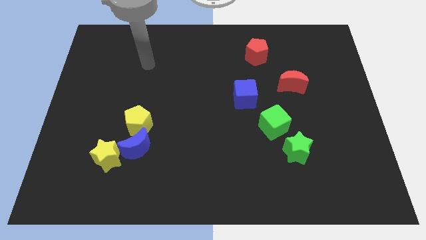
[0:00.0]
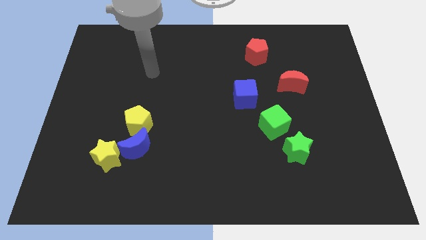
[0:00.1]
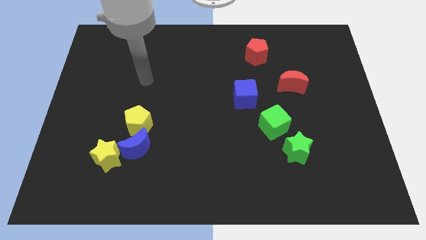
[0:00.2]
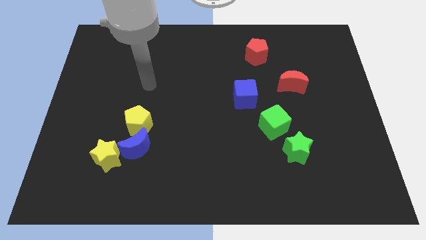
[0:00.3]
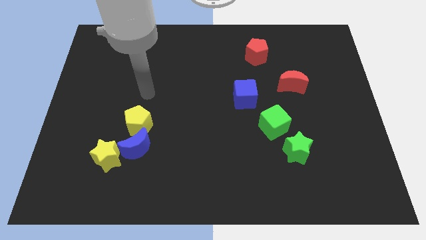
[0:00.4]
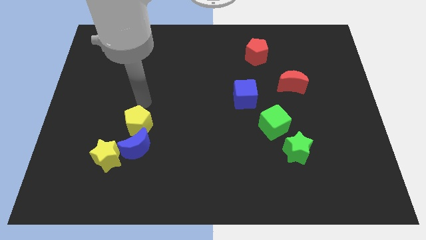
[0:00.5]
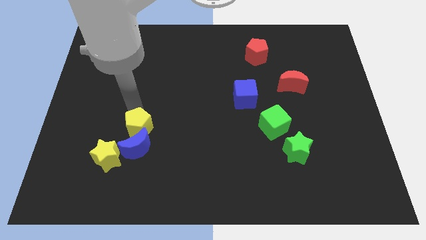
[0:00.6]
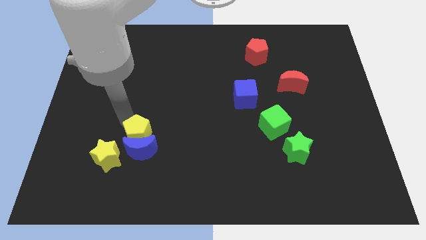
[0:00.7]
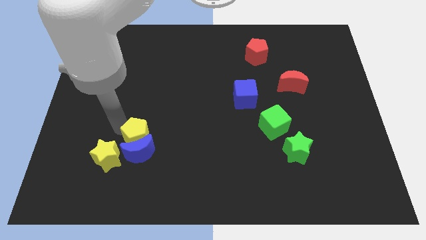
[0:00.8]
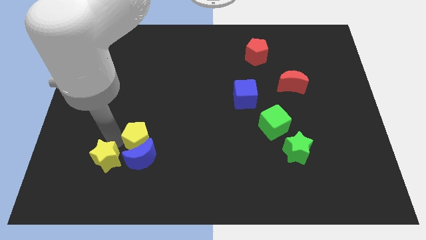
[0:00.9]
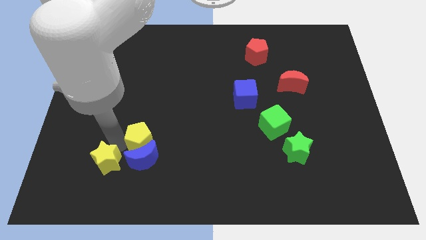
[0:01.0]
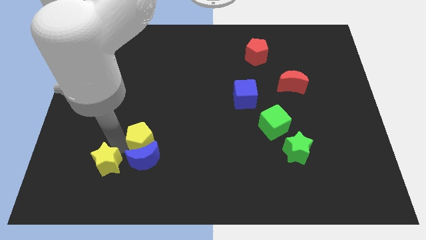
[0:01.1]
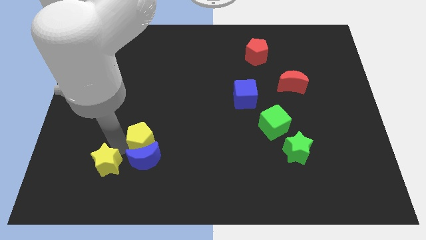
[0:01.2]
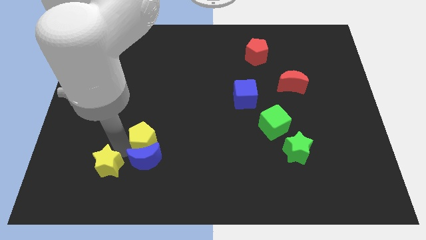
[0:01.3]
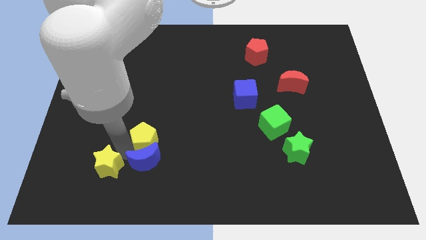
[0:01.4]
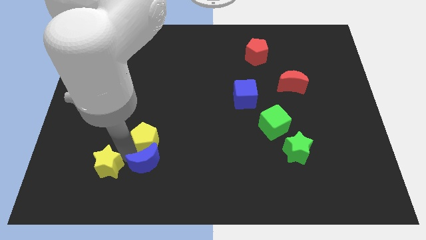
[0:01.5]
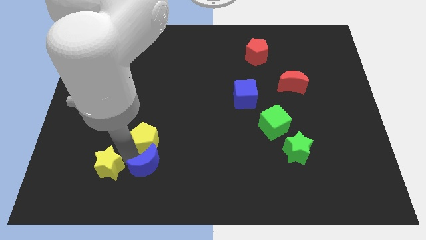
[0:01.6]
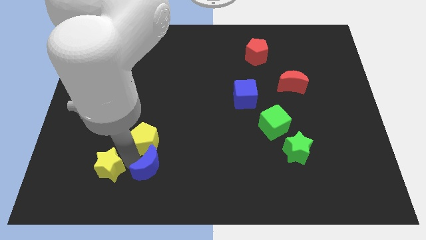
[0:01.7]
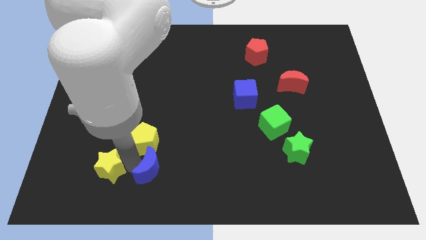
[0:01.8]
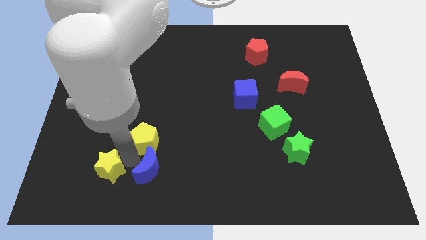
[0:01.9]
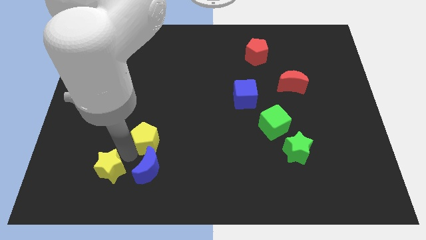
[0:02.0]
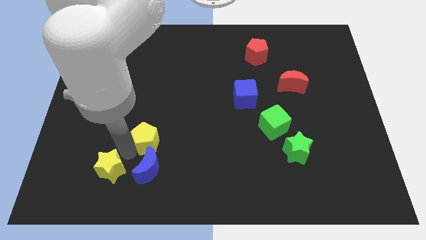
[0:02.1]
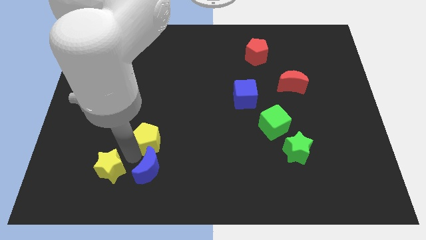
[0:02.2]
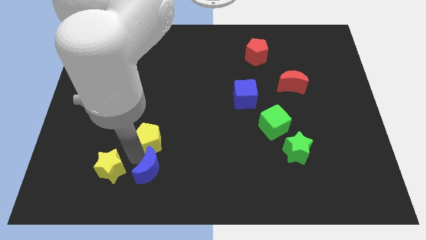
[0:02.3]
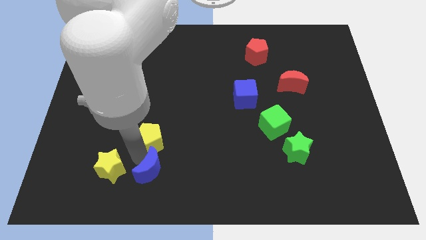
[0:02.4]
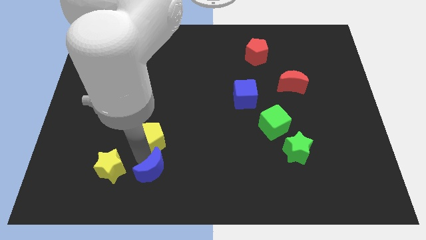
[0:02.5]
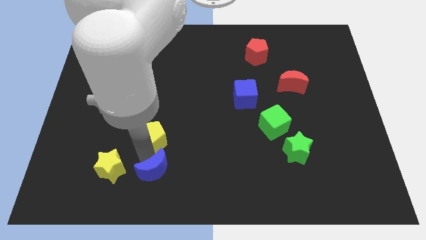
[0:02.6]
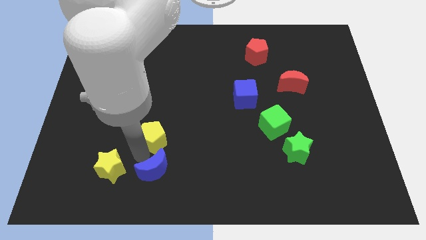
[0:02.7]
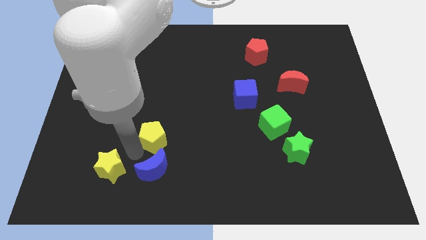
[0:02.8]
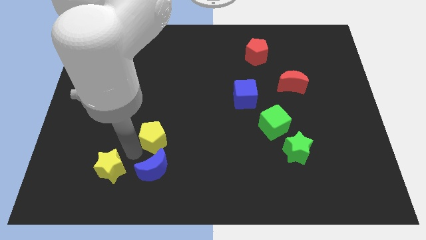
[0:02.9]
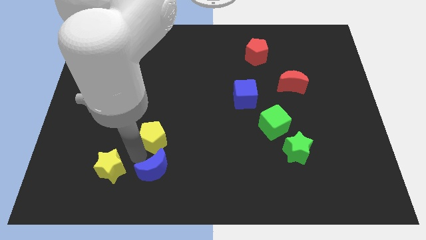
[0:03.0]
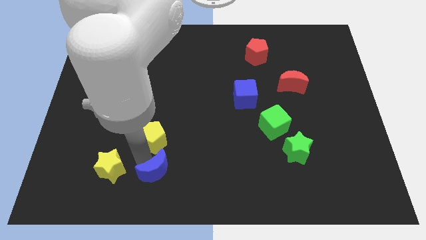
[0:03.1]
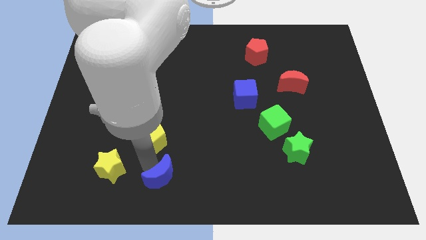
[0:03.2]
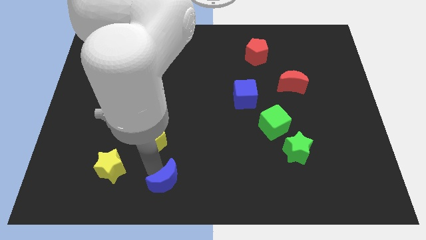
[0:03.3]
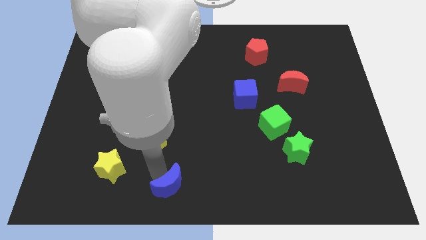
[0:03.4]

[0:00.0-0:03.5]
move the blue moon away from the yellow pentagon and yellow star

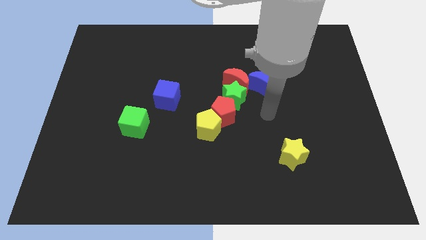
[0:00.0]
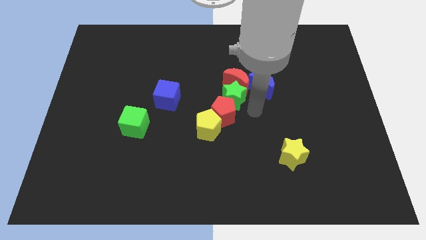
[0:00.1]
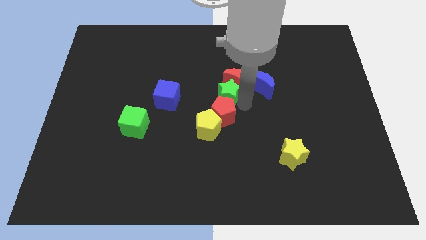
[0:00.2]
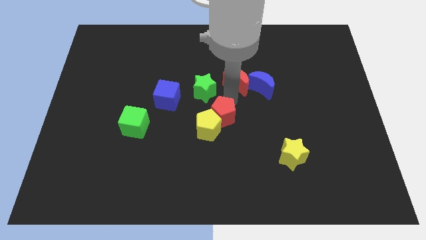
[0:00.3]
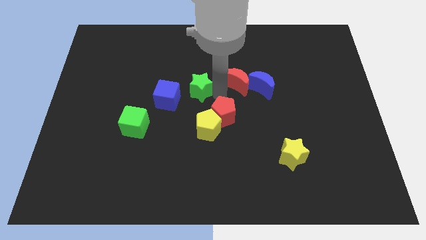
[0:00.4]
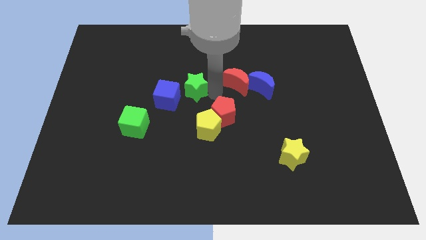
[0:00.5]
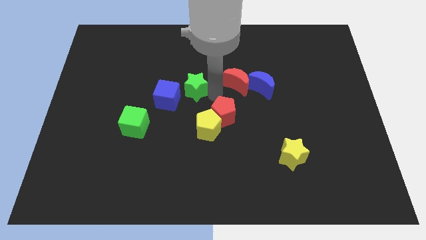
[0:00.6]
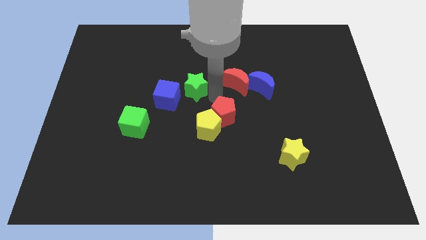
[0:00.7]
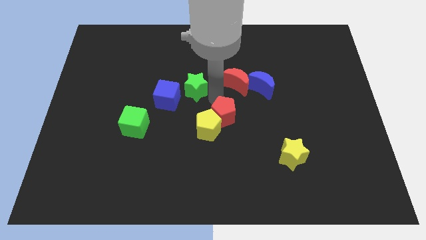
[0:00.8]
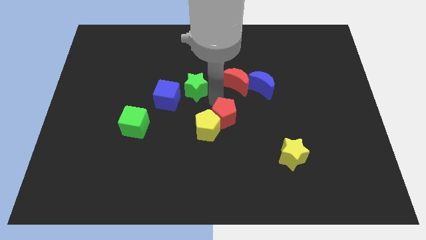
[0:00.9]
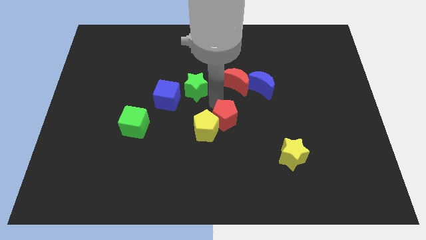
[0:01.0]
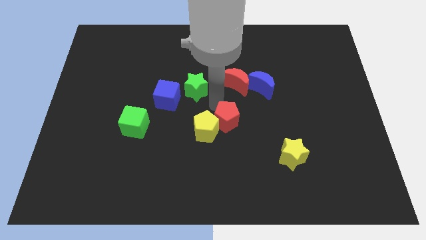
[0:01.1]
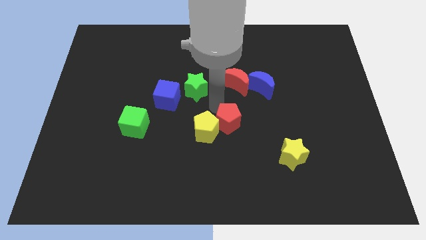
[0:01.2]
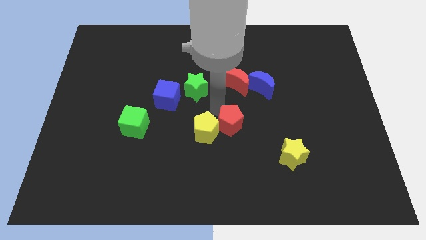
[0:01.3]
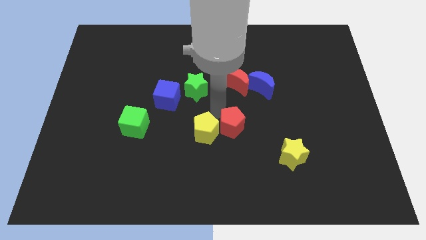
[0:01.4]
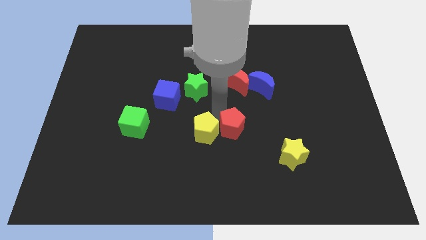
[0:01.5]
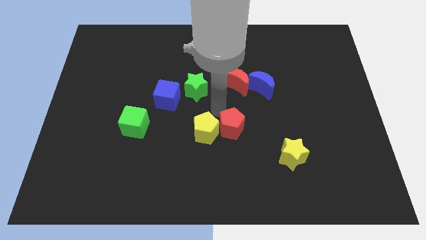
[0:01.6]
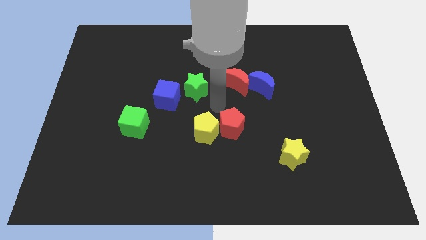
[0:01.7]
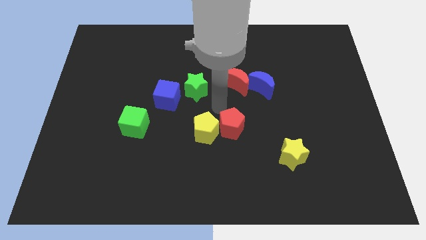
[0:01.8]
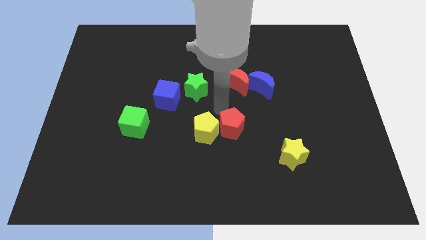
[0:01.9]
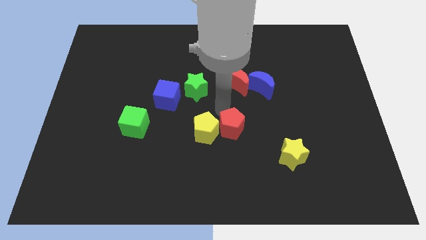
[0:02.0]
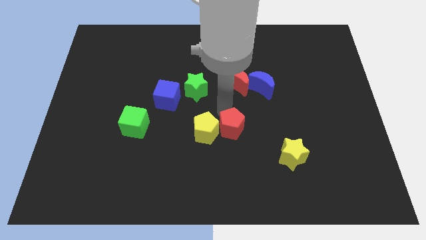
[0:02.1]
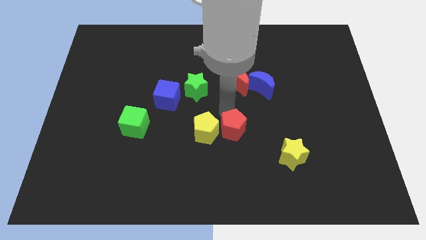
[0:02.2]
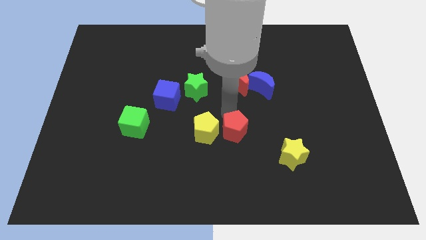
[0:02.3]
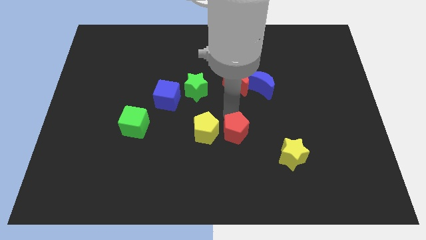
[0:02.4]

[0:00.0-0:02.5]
separate the red pentagon from the group

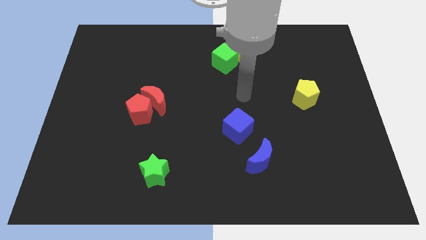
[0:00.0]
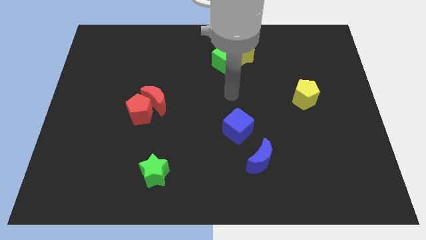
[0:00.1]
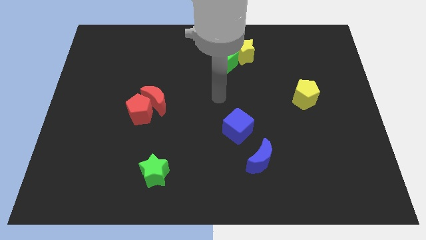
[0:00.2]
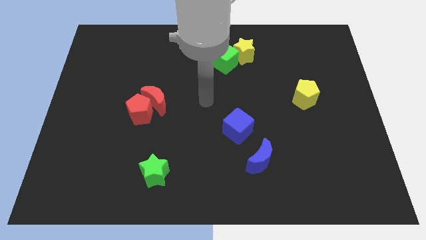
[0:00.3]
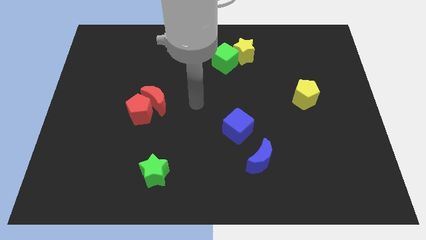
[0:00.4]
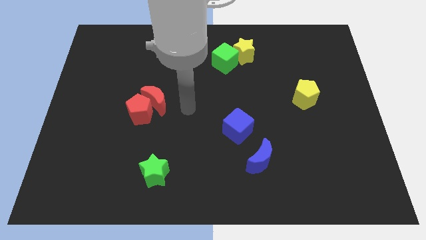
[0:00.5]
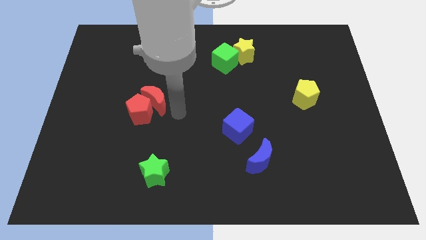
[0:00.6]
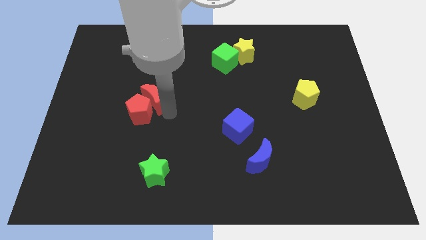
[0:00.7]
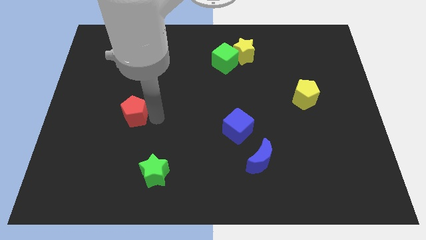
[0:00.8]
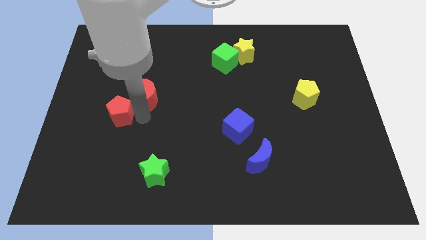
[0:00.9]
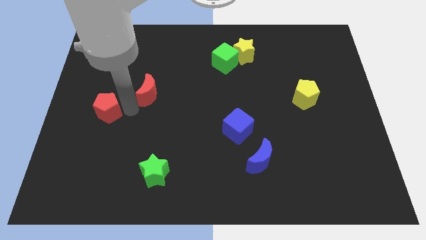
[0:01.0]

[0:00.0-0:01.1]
pull the red moon apart from the red pentagon

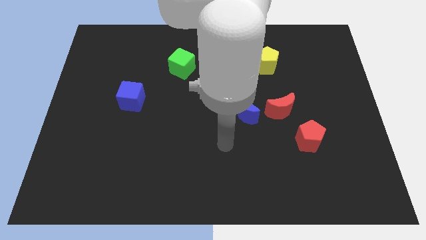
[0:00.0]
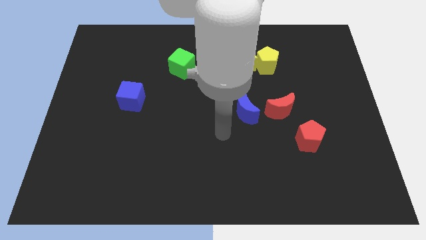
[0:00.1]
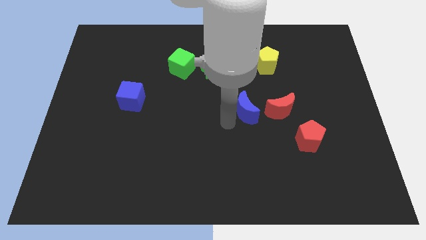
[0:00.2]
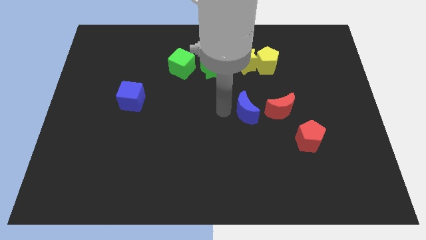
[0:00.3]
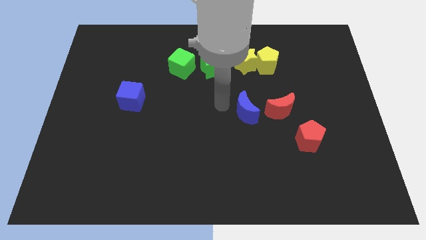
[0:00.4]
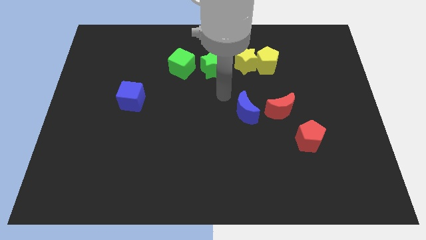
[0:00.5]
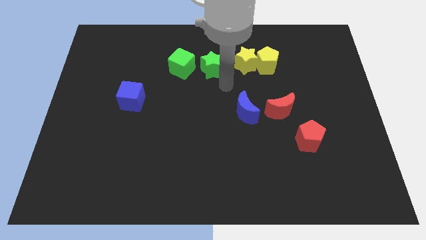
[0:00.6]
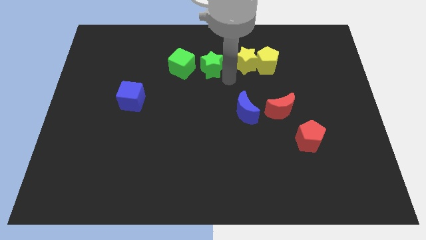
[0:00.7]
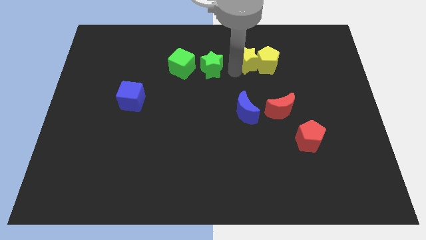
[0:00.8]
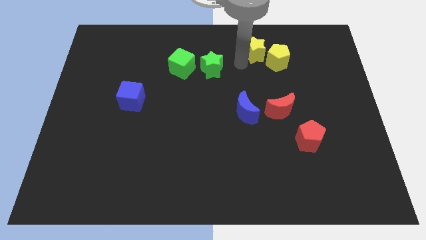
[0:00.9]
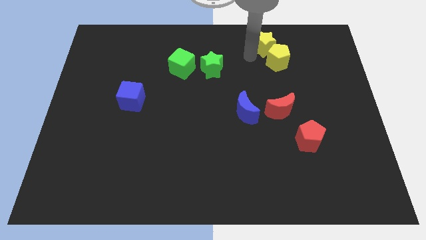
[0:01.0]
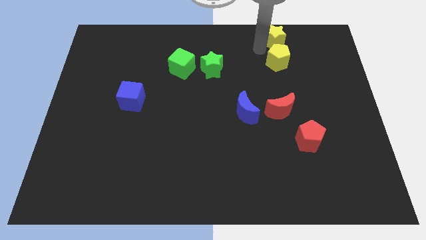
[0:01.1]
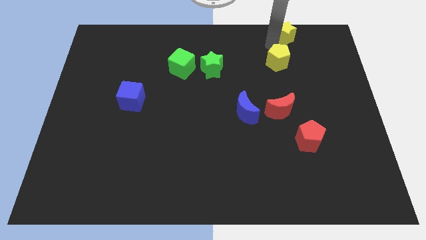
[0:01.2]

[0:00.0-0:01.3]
move the yellow pentagon away from the yellow star

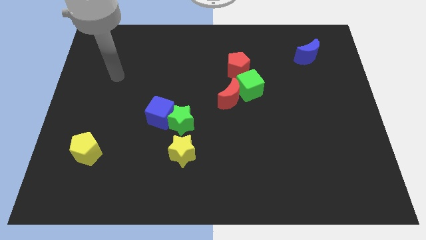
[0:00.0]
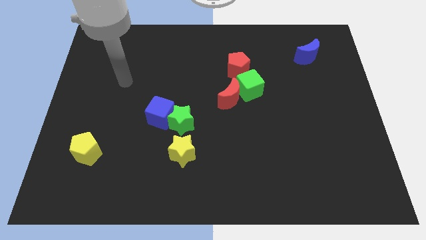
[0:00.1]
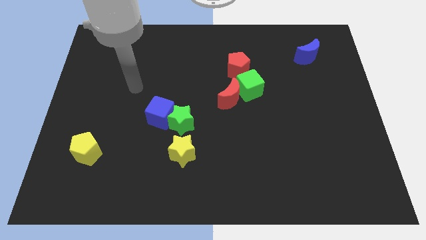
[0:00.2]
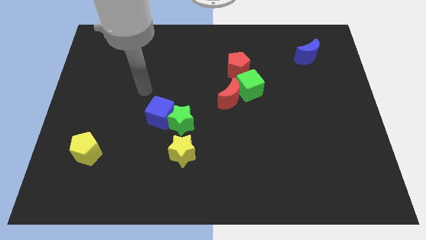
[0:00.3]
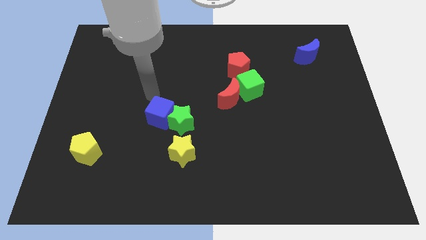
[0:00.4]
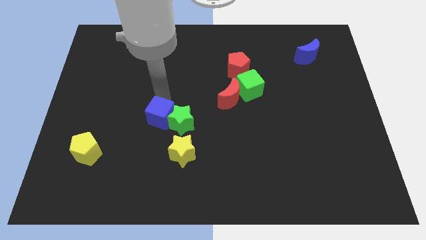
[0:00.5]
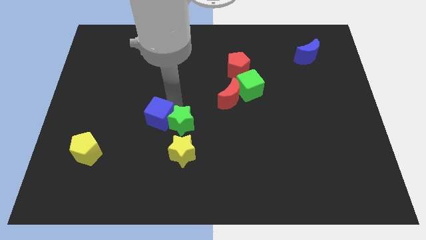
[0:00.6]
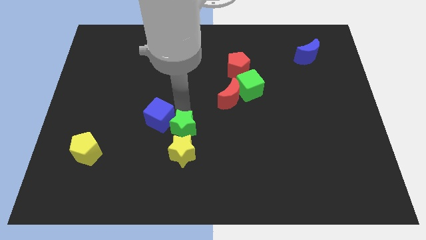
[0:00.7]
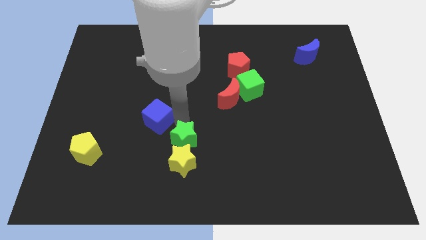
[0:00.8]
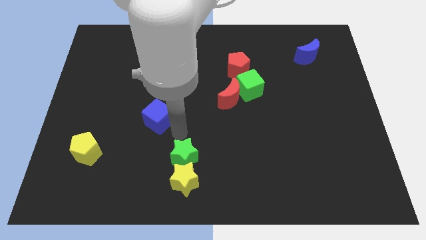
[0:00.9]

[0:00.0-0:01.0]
separate the blue cube from the green star
